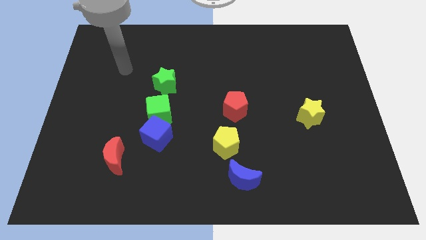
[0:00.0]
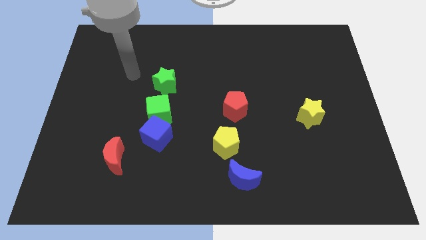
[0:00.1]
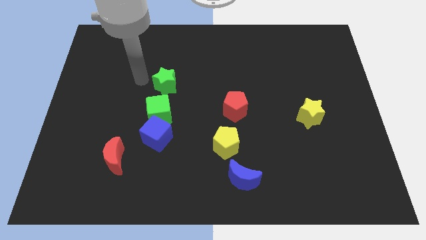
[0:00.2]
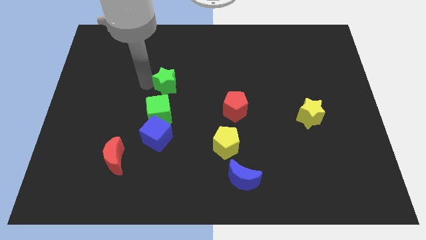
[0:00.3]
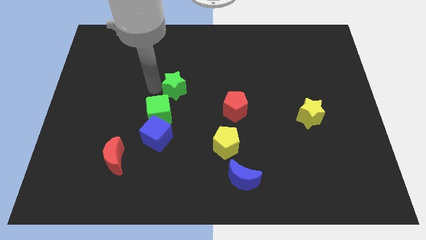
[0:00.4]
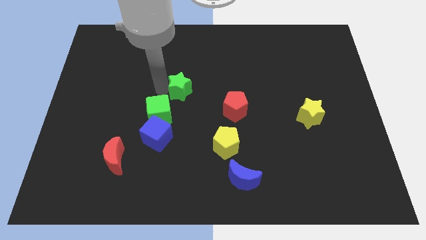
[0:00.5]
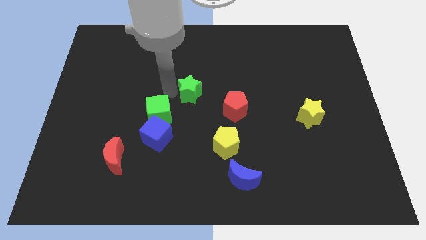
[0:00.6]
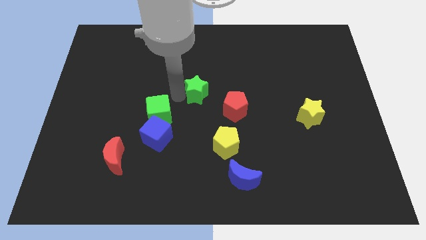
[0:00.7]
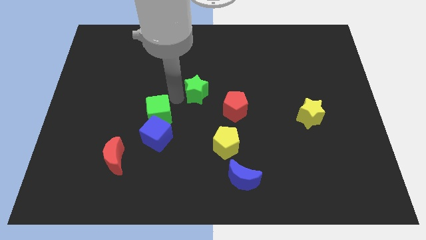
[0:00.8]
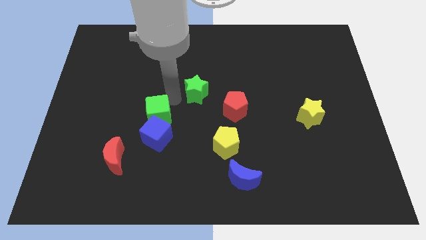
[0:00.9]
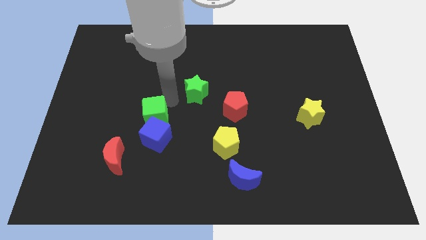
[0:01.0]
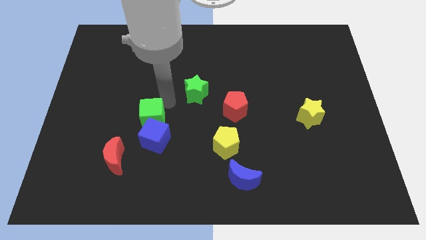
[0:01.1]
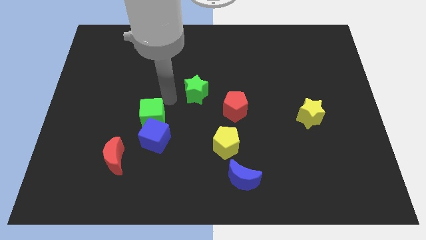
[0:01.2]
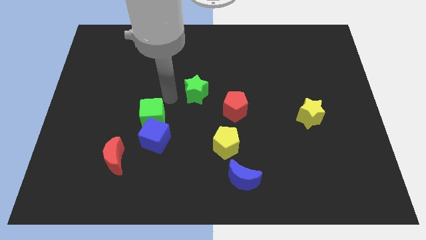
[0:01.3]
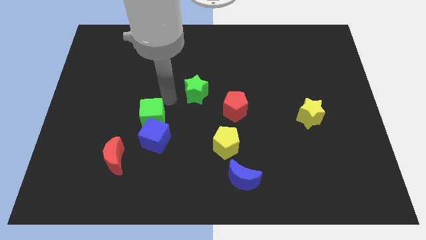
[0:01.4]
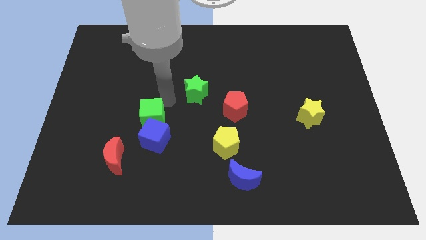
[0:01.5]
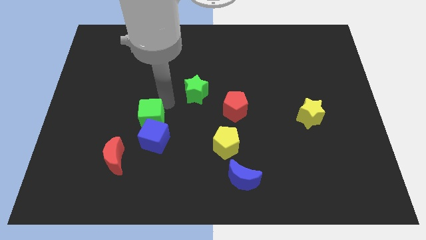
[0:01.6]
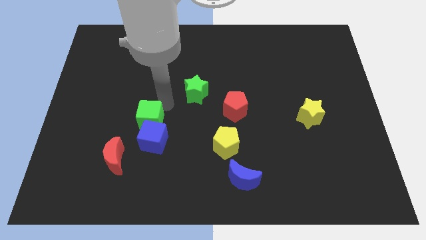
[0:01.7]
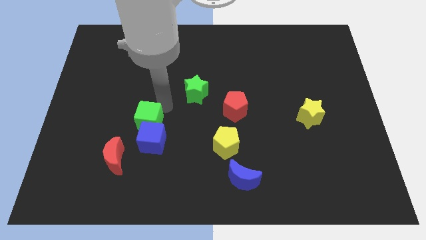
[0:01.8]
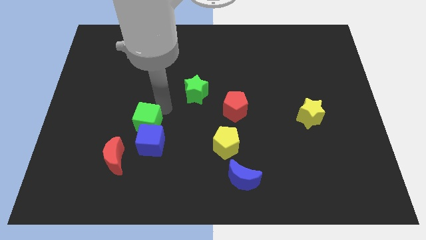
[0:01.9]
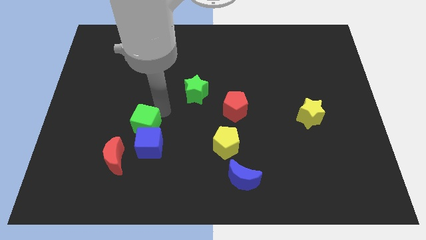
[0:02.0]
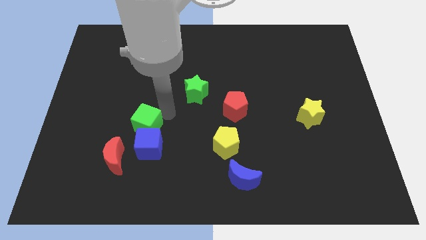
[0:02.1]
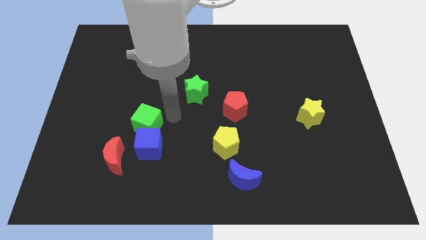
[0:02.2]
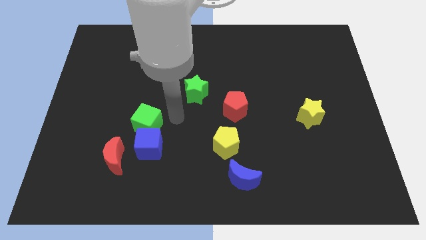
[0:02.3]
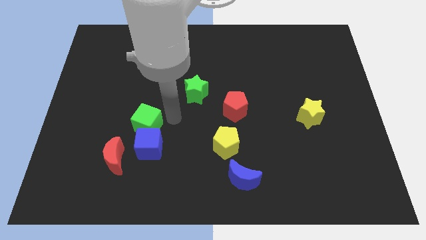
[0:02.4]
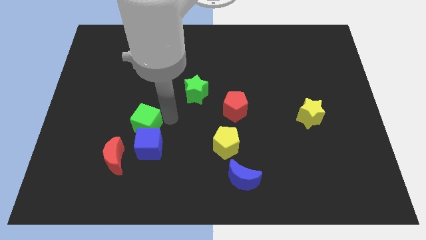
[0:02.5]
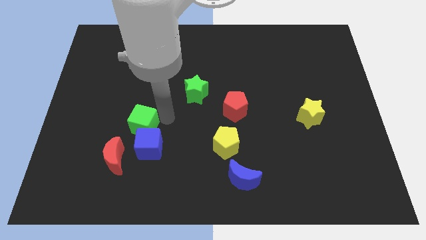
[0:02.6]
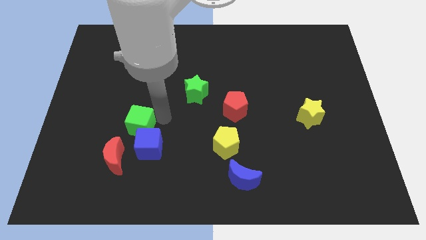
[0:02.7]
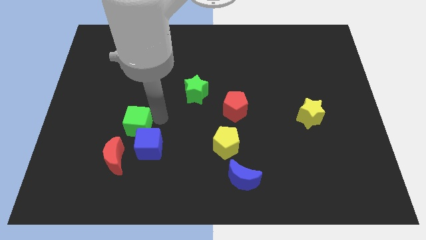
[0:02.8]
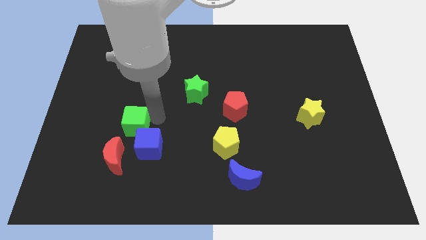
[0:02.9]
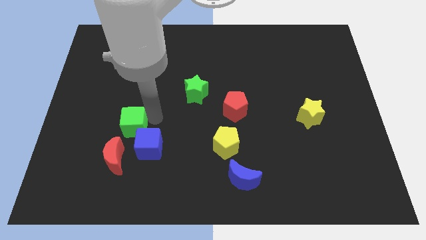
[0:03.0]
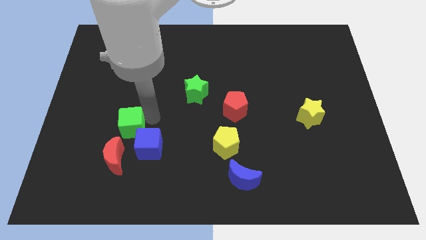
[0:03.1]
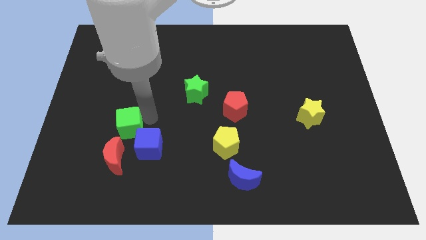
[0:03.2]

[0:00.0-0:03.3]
move the green cube away from the blue cube and green star

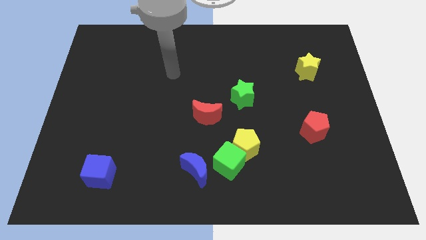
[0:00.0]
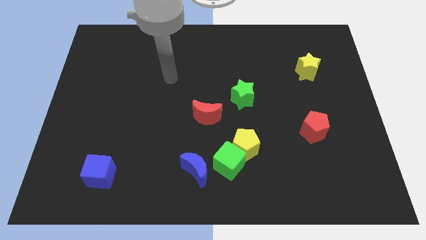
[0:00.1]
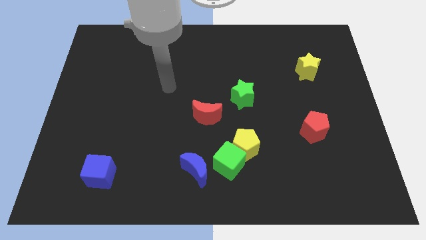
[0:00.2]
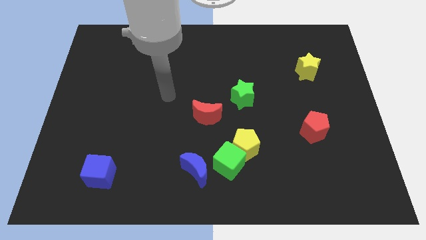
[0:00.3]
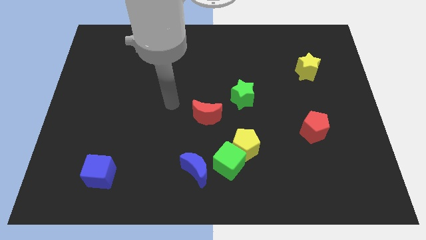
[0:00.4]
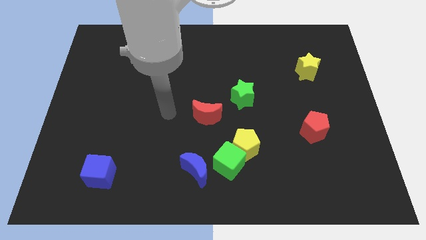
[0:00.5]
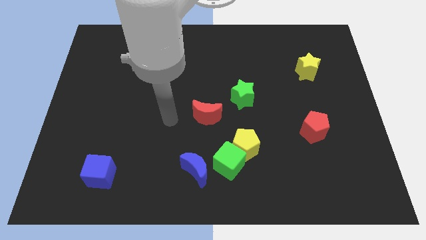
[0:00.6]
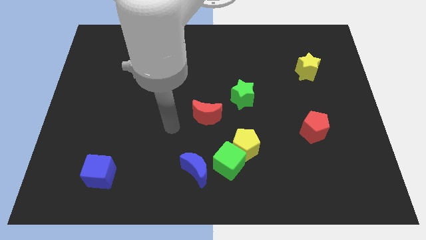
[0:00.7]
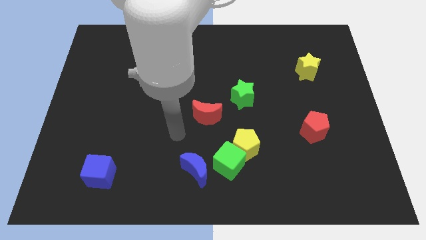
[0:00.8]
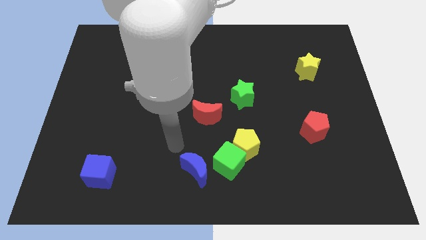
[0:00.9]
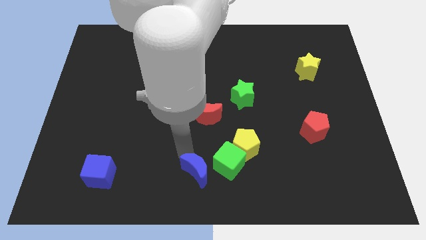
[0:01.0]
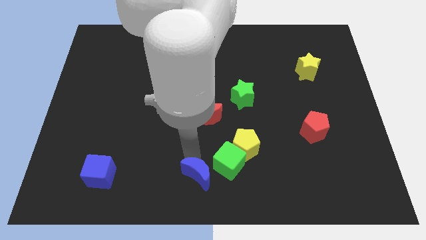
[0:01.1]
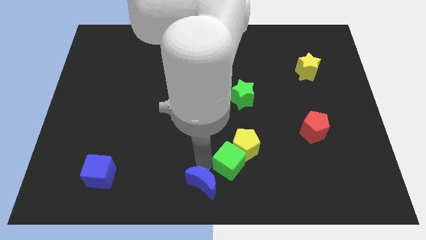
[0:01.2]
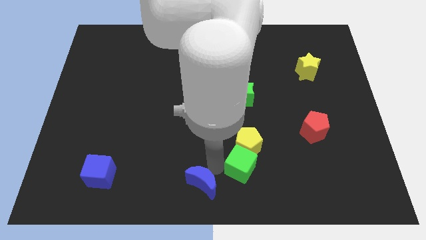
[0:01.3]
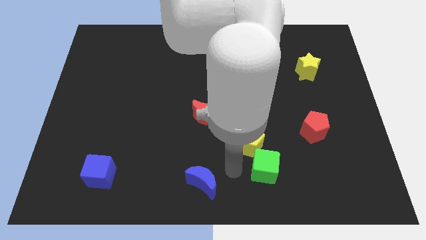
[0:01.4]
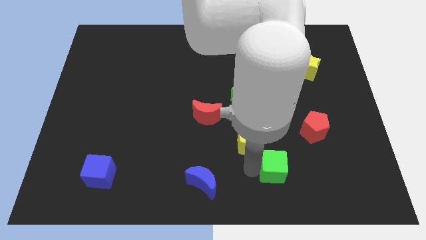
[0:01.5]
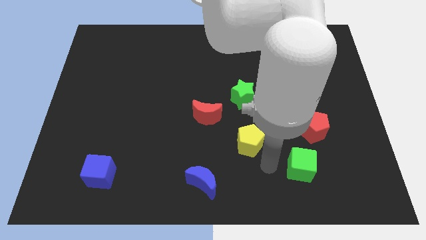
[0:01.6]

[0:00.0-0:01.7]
move the yellow pentagon away from the green cube

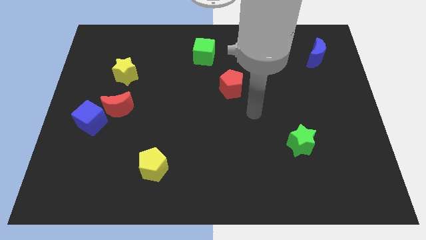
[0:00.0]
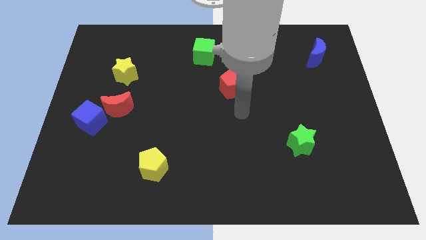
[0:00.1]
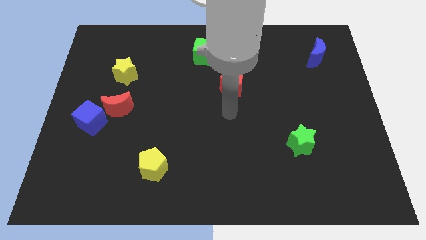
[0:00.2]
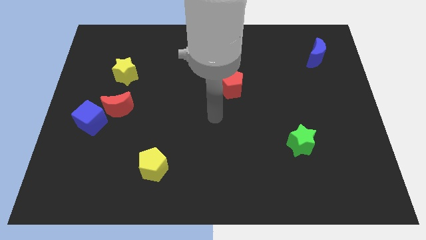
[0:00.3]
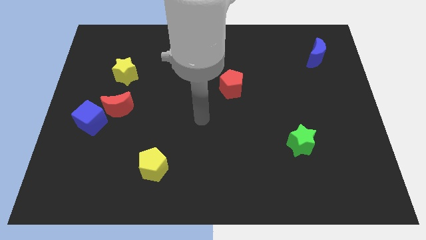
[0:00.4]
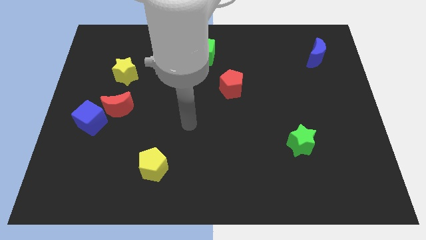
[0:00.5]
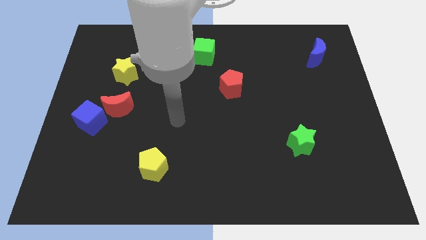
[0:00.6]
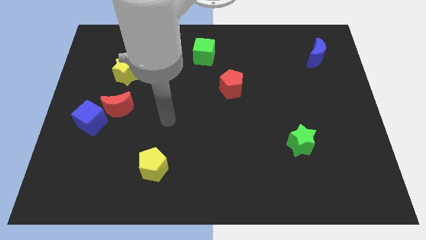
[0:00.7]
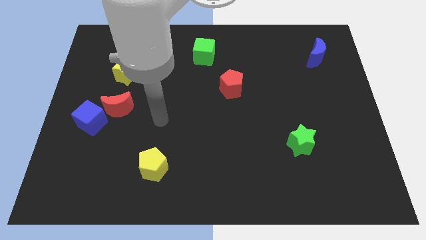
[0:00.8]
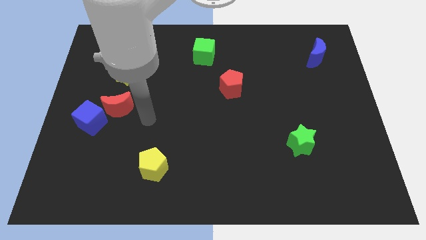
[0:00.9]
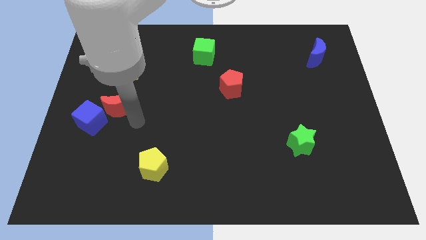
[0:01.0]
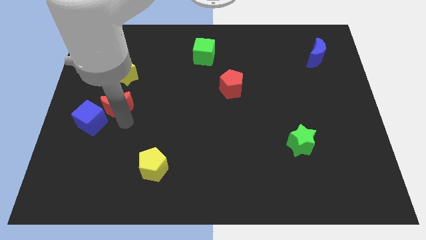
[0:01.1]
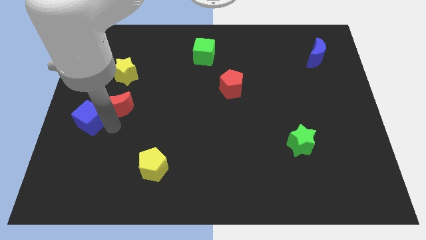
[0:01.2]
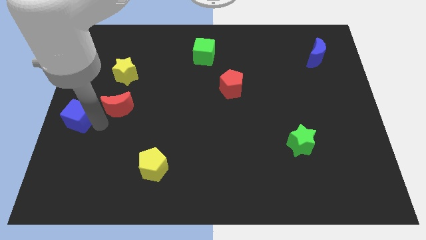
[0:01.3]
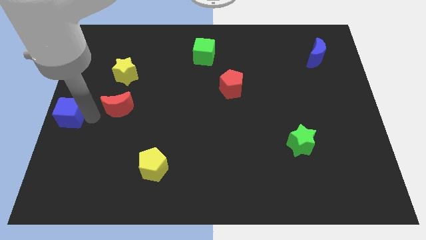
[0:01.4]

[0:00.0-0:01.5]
move the red moon away from the blue cube

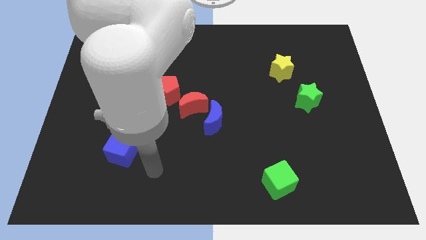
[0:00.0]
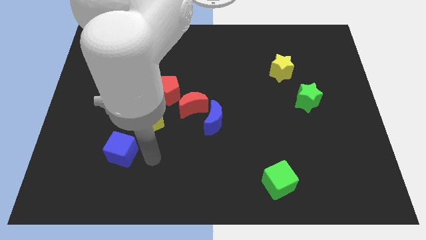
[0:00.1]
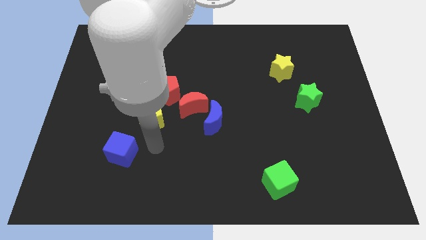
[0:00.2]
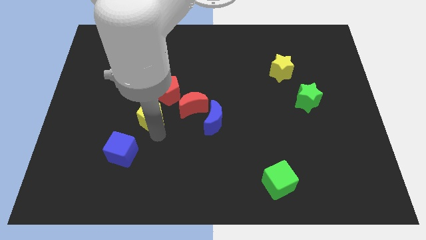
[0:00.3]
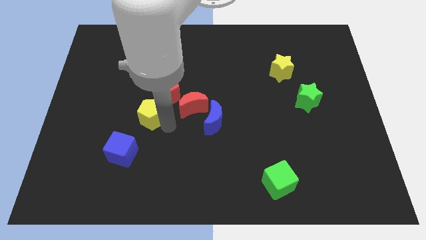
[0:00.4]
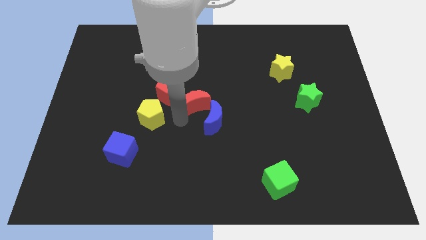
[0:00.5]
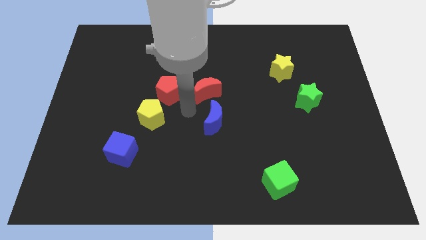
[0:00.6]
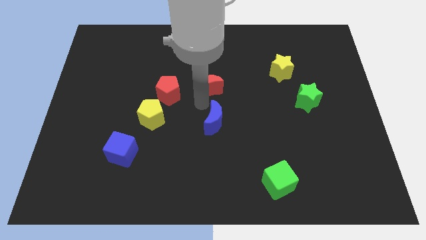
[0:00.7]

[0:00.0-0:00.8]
pull the blue moon apart from the red moon

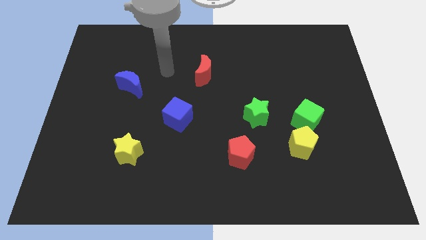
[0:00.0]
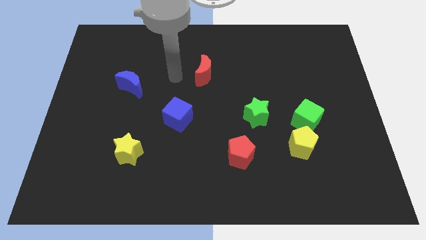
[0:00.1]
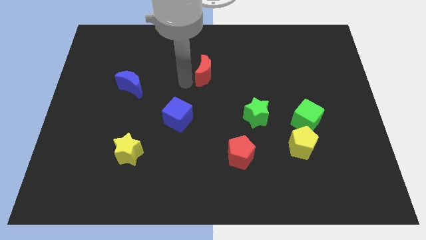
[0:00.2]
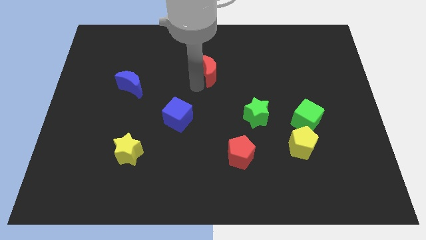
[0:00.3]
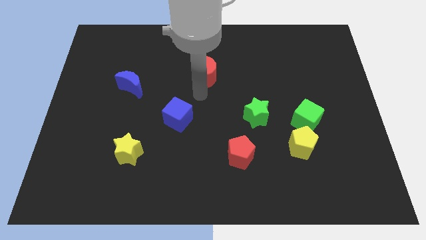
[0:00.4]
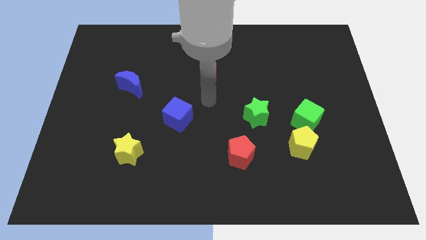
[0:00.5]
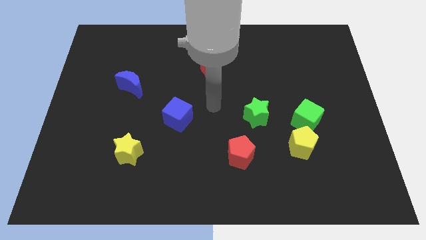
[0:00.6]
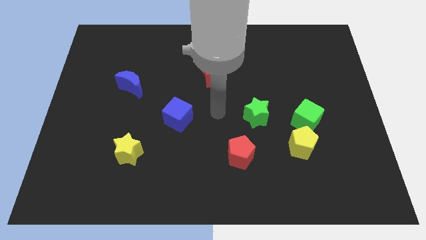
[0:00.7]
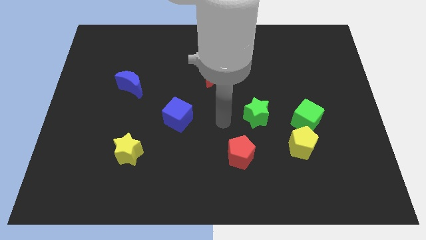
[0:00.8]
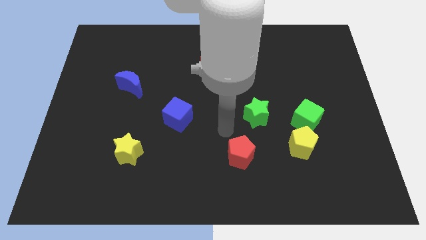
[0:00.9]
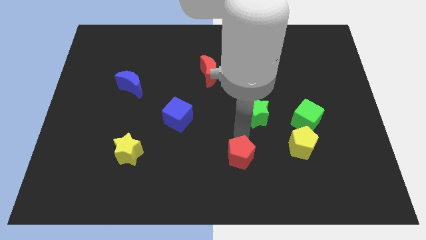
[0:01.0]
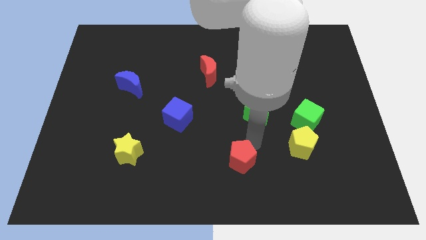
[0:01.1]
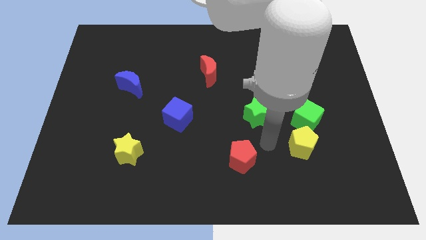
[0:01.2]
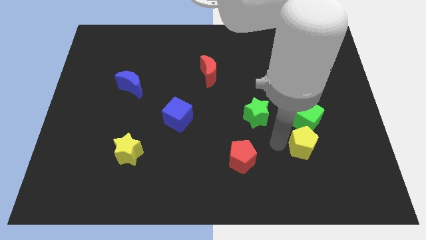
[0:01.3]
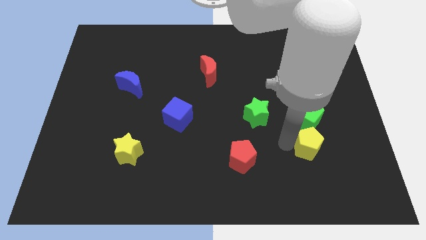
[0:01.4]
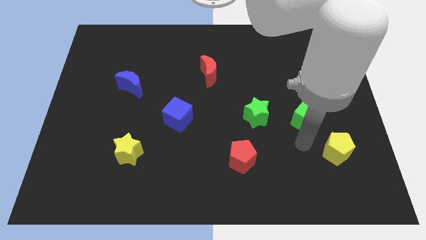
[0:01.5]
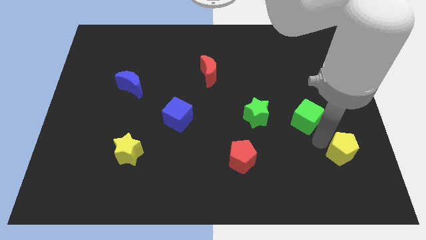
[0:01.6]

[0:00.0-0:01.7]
move the green cube away from the yellow pentagon

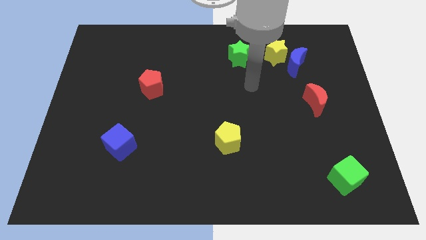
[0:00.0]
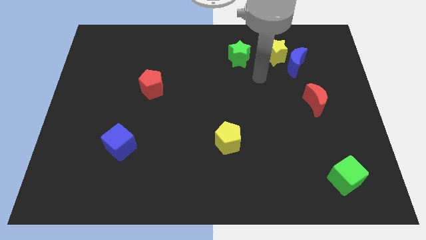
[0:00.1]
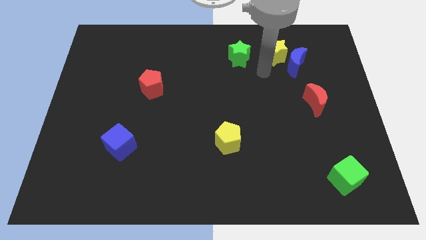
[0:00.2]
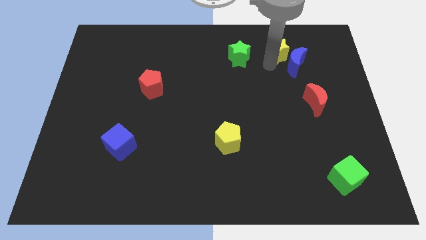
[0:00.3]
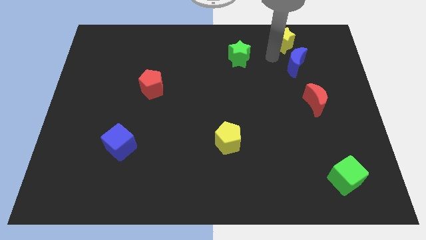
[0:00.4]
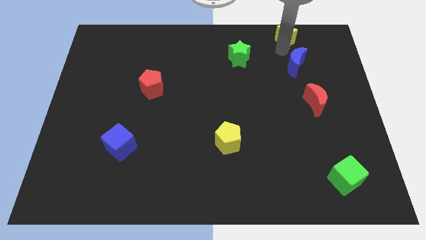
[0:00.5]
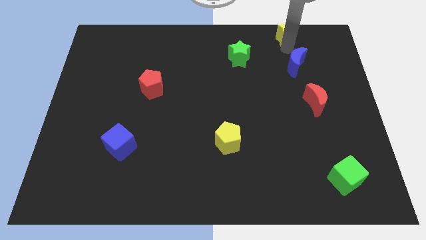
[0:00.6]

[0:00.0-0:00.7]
move the blue moon away from the yellow star
